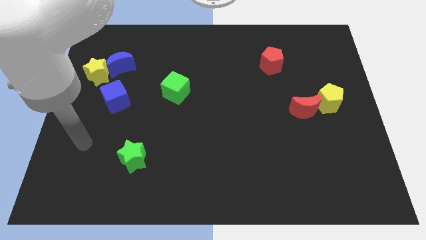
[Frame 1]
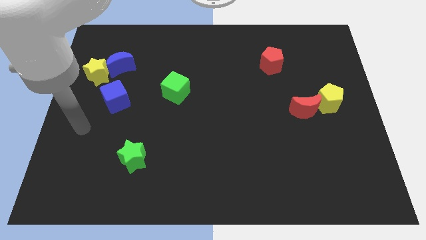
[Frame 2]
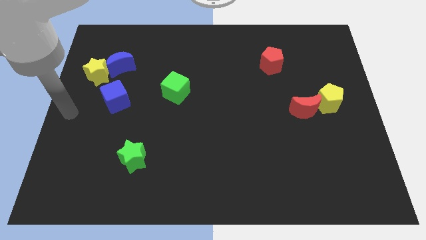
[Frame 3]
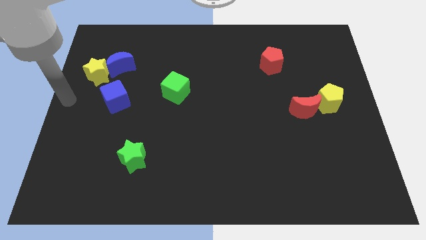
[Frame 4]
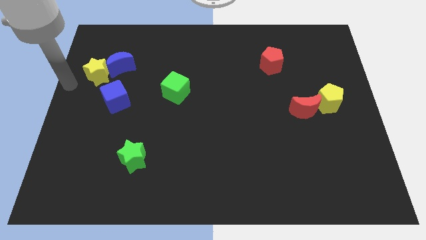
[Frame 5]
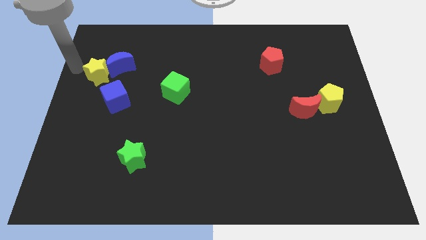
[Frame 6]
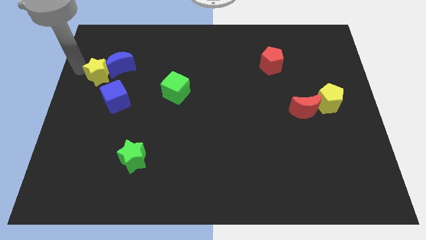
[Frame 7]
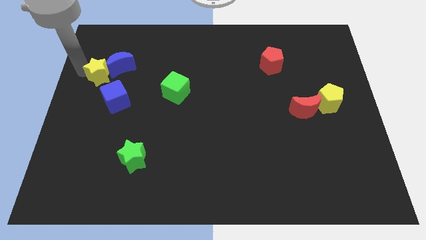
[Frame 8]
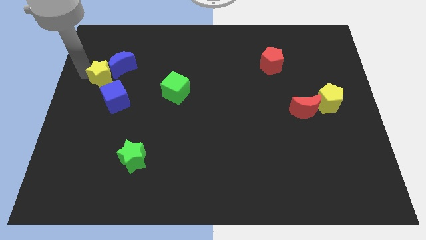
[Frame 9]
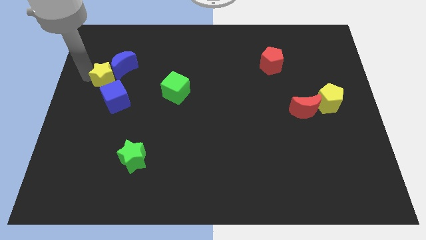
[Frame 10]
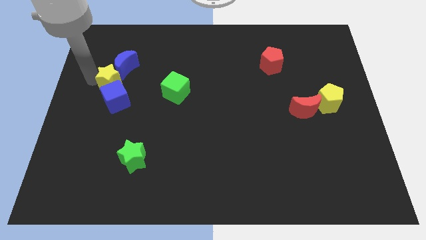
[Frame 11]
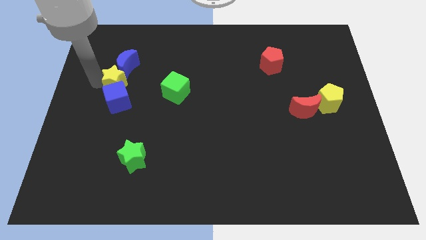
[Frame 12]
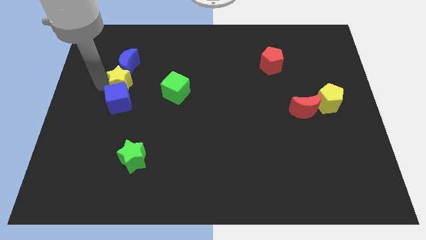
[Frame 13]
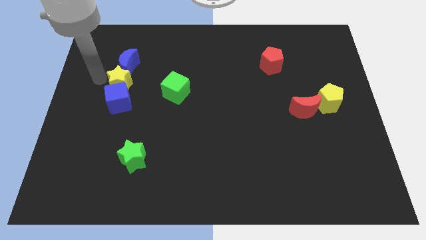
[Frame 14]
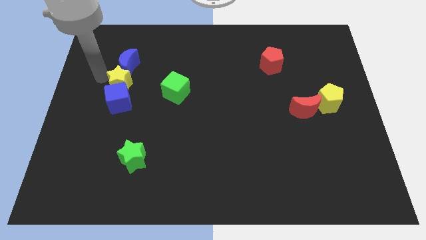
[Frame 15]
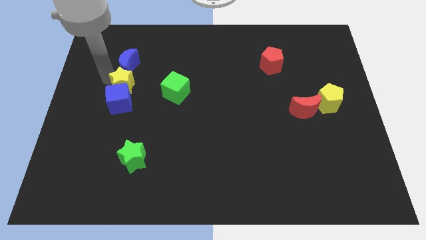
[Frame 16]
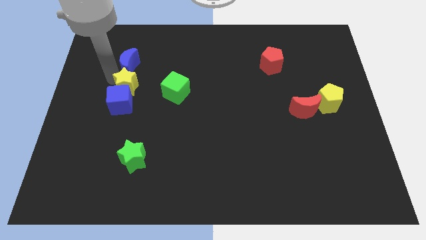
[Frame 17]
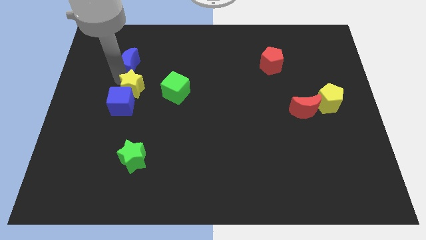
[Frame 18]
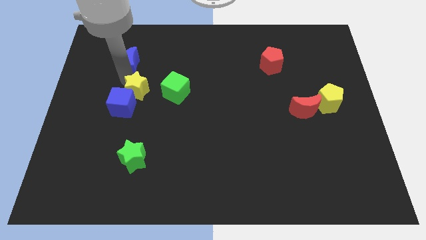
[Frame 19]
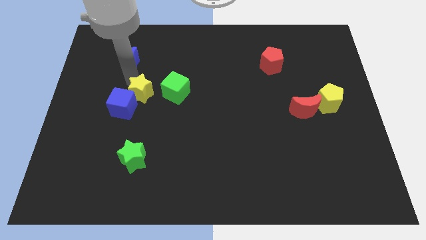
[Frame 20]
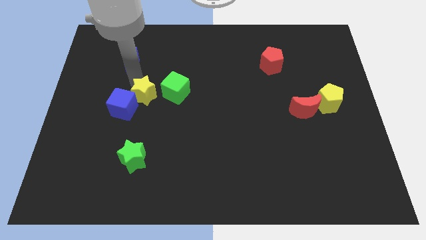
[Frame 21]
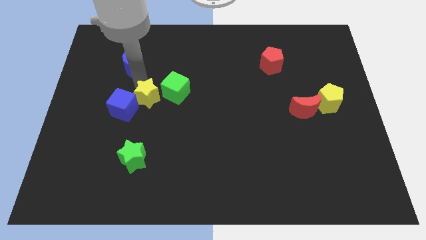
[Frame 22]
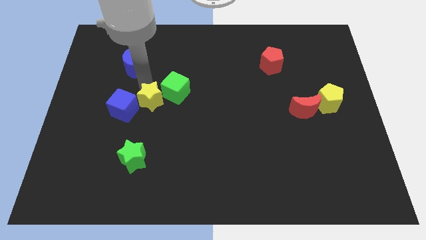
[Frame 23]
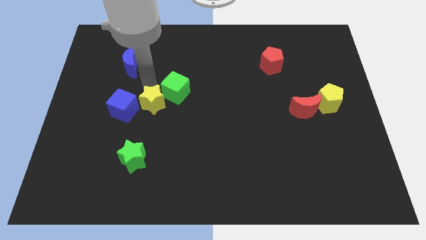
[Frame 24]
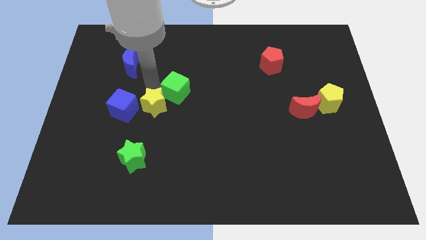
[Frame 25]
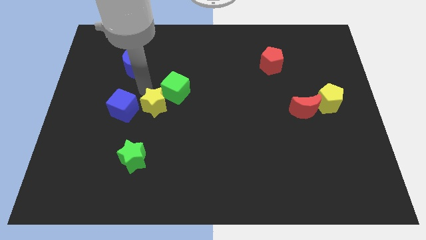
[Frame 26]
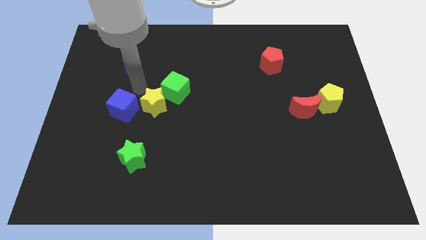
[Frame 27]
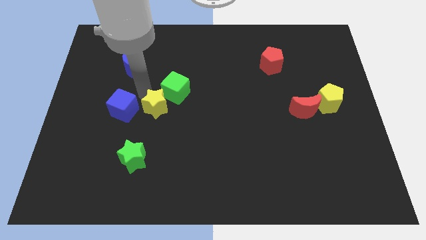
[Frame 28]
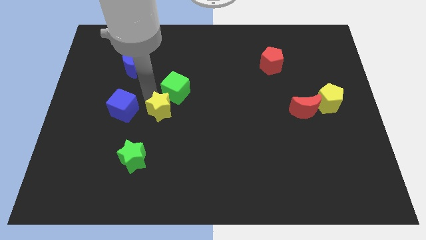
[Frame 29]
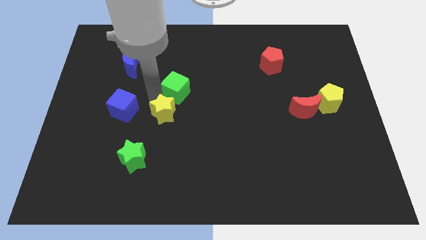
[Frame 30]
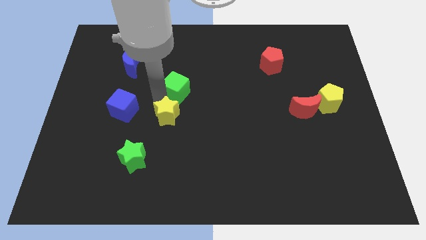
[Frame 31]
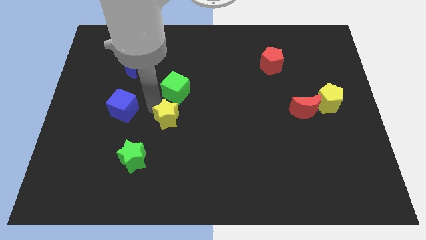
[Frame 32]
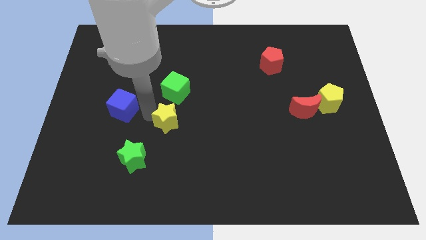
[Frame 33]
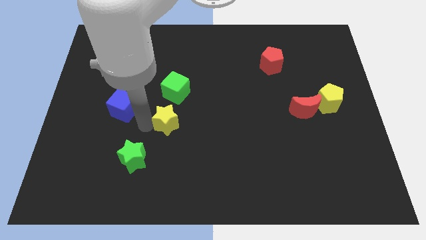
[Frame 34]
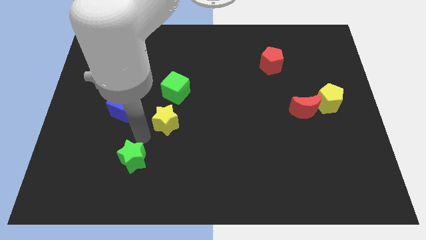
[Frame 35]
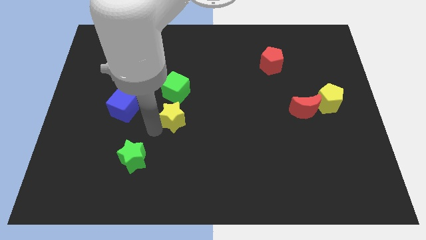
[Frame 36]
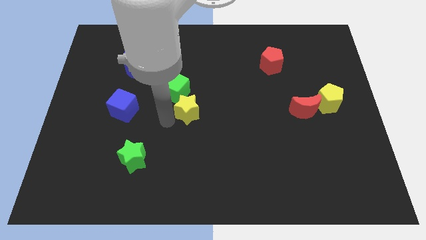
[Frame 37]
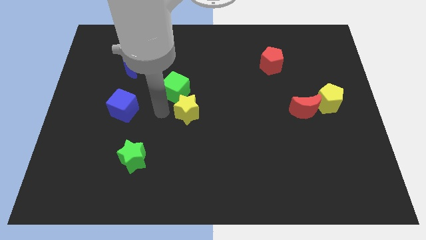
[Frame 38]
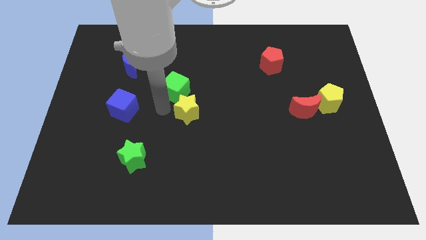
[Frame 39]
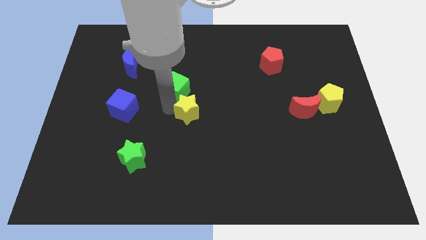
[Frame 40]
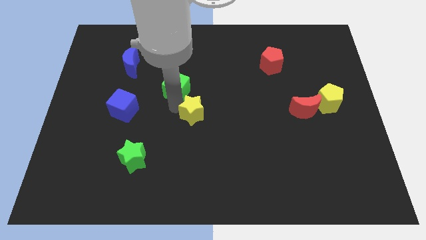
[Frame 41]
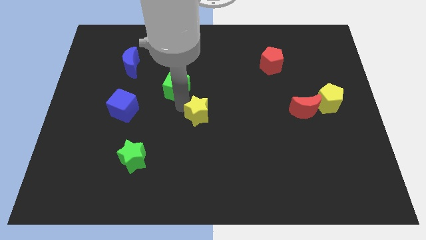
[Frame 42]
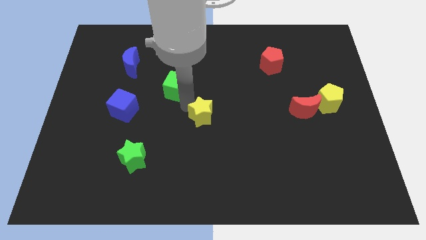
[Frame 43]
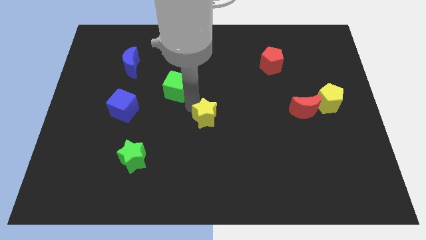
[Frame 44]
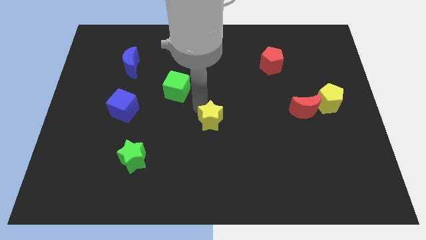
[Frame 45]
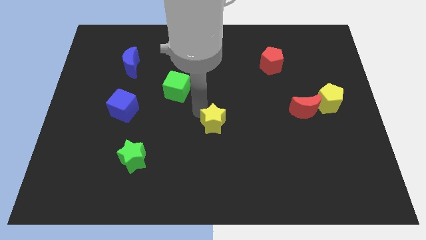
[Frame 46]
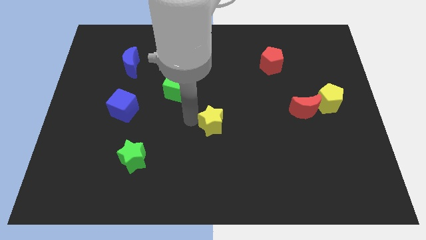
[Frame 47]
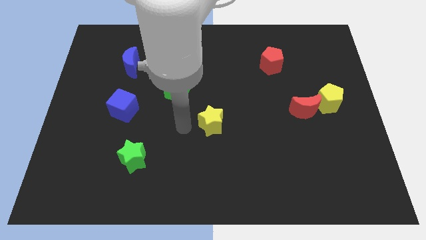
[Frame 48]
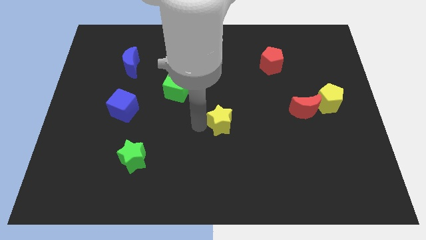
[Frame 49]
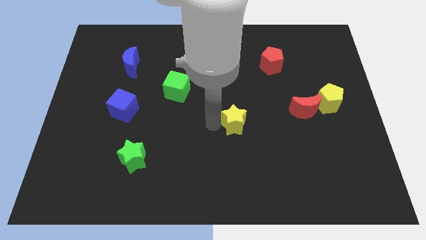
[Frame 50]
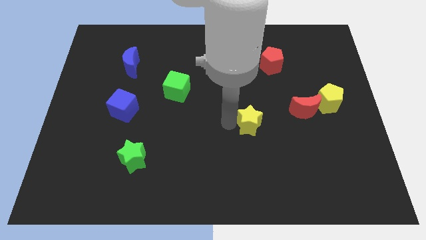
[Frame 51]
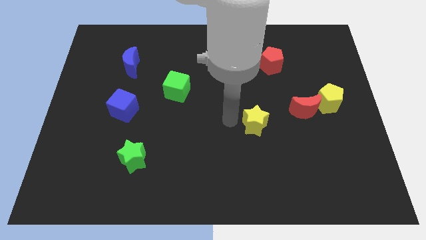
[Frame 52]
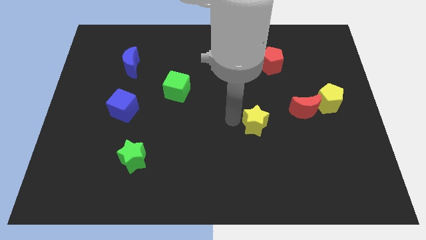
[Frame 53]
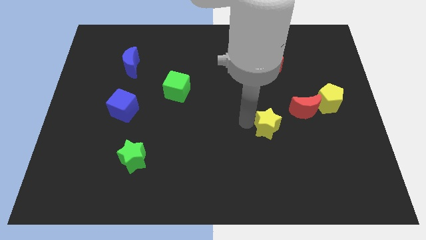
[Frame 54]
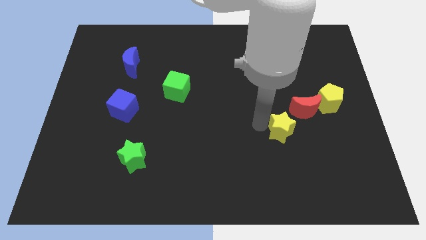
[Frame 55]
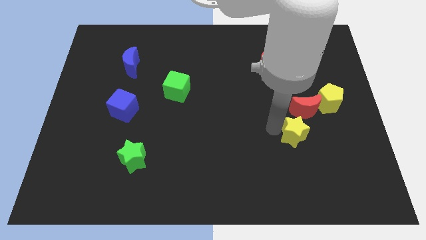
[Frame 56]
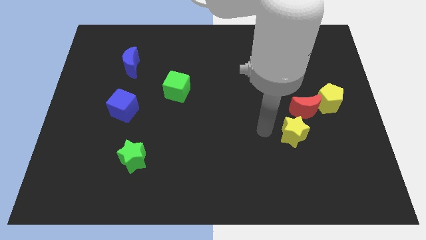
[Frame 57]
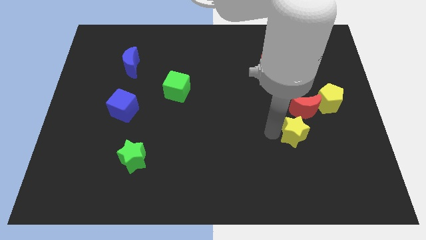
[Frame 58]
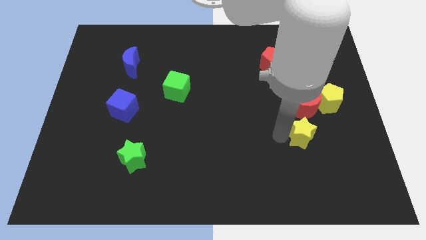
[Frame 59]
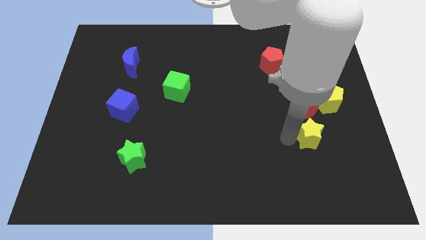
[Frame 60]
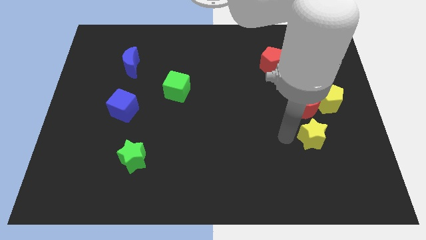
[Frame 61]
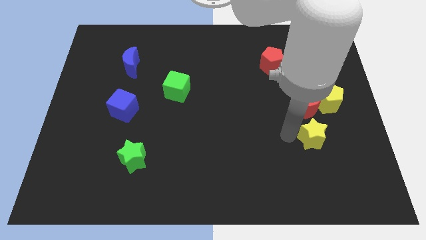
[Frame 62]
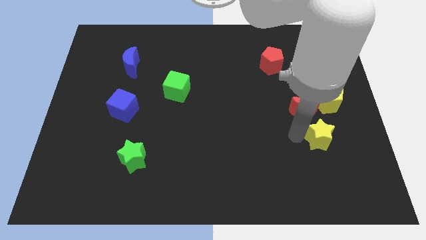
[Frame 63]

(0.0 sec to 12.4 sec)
move the yellow star to the bottom of the yellow pentagon
